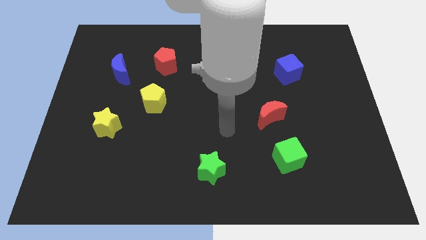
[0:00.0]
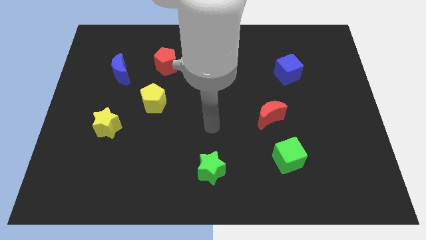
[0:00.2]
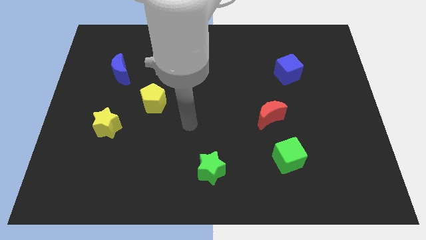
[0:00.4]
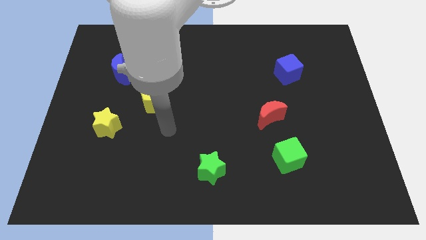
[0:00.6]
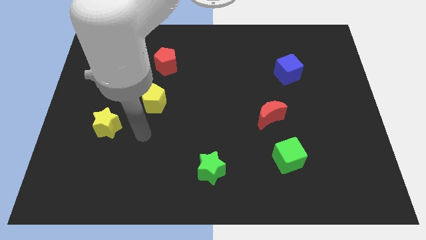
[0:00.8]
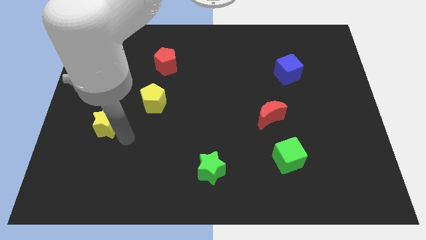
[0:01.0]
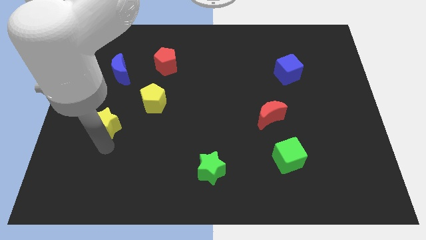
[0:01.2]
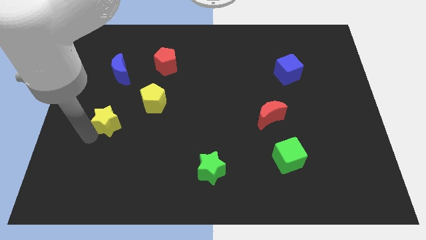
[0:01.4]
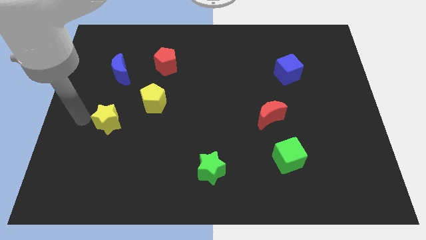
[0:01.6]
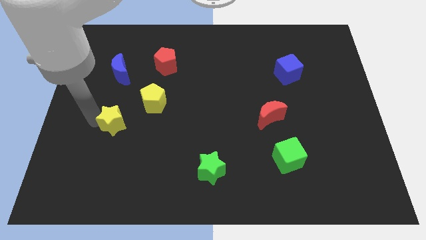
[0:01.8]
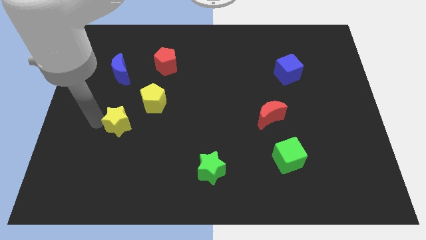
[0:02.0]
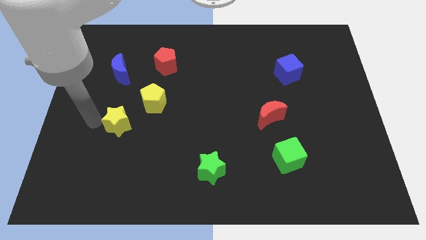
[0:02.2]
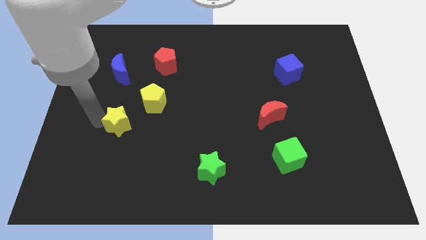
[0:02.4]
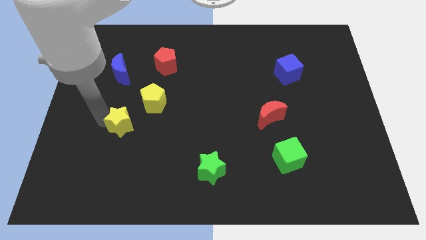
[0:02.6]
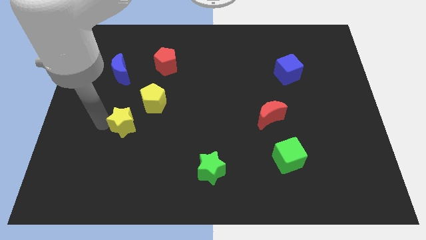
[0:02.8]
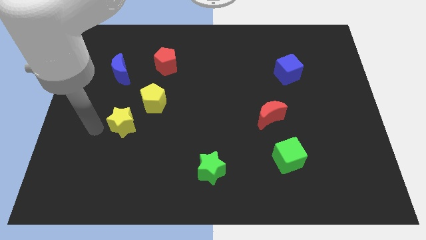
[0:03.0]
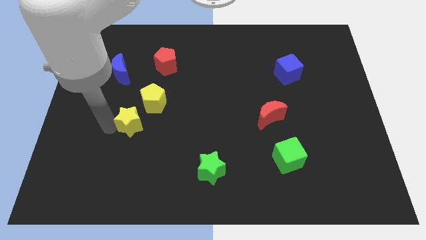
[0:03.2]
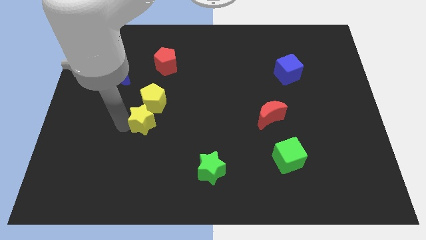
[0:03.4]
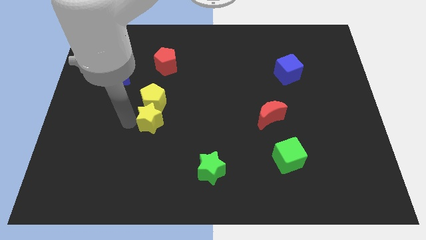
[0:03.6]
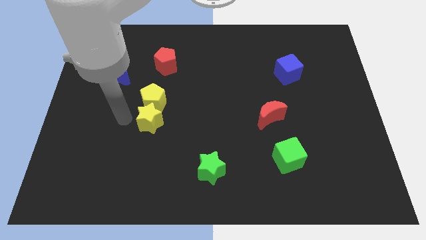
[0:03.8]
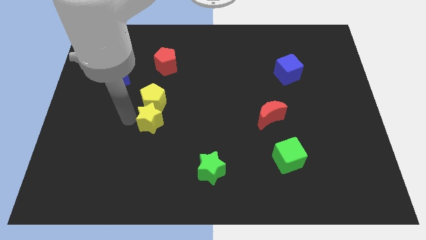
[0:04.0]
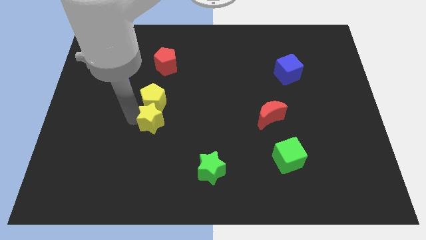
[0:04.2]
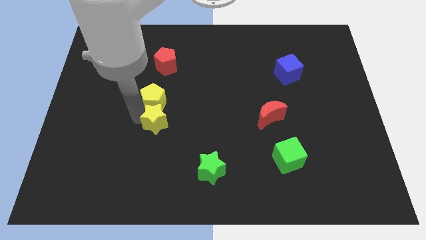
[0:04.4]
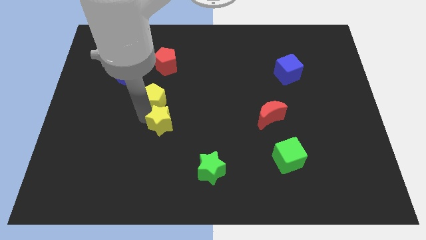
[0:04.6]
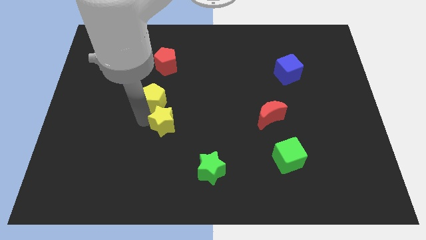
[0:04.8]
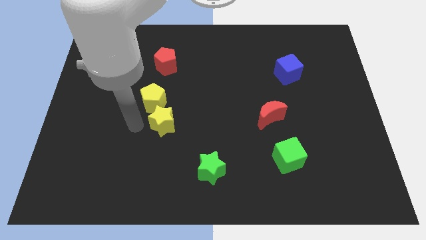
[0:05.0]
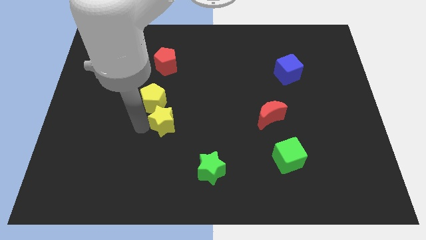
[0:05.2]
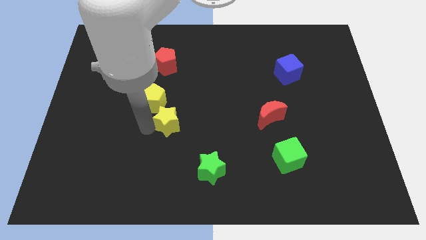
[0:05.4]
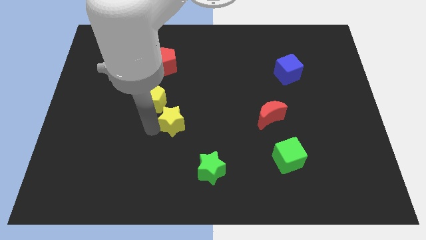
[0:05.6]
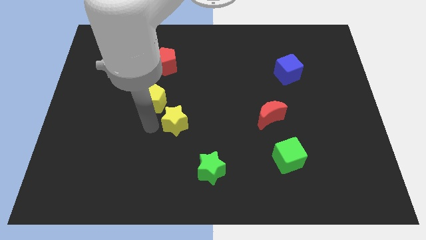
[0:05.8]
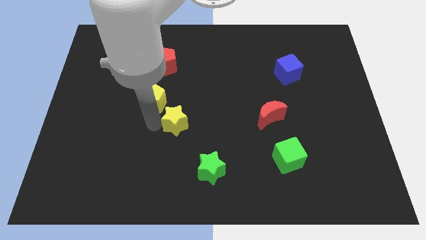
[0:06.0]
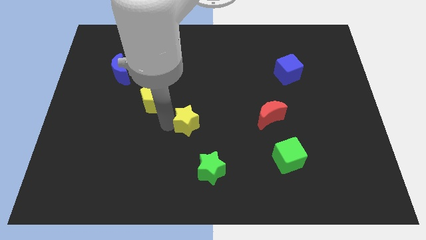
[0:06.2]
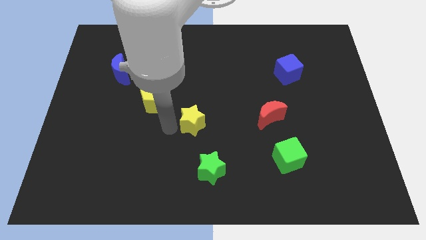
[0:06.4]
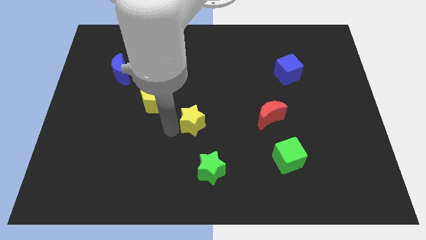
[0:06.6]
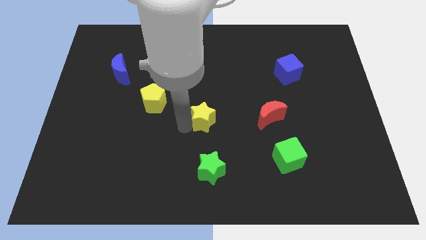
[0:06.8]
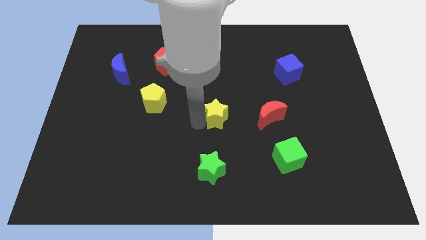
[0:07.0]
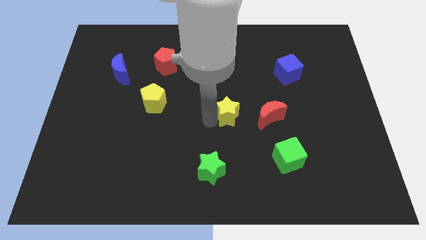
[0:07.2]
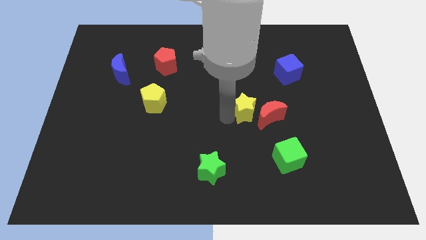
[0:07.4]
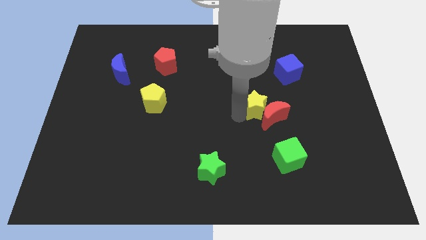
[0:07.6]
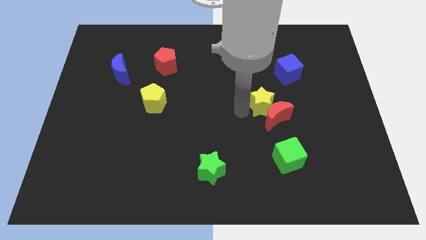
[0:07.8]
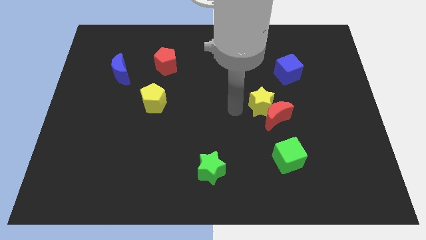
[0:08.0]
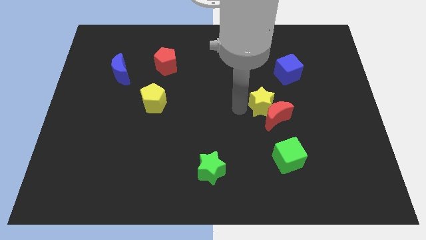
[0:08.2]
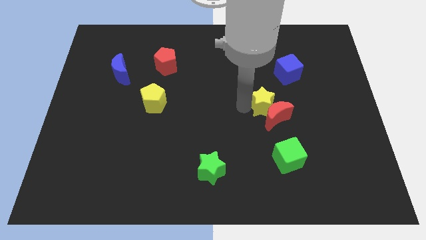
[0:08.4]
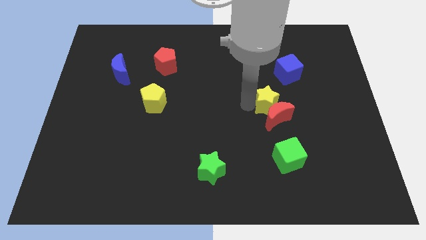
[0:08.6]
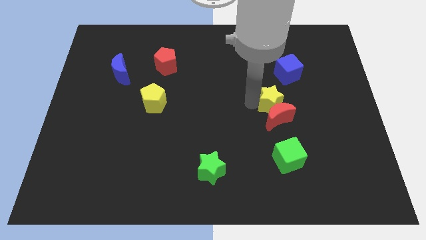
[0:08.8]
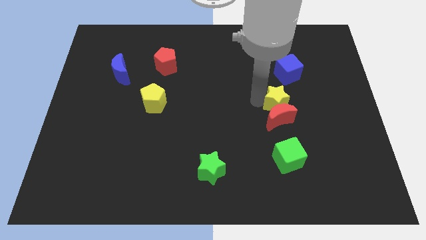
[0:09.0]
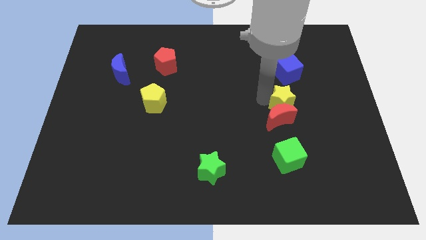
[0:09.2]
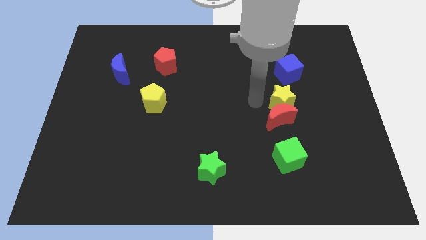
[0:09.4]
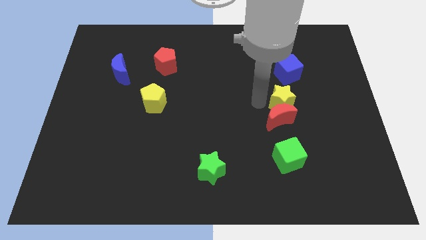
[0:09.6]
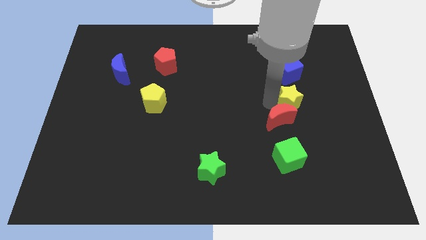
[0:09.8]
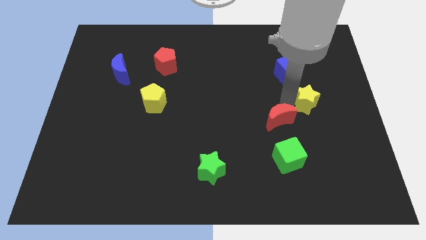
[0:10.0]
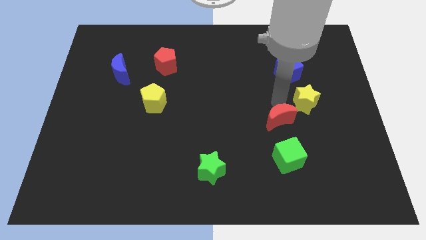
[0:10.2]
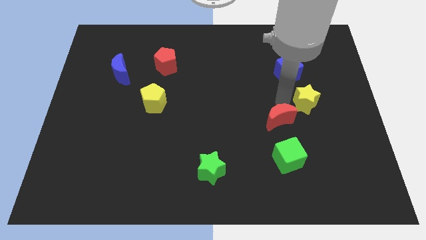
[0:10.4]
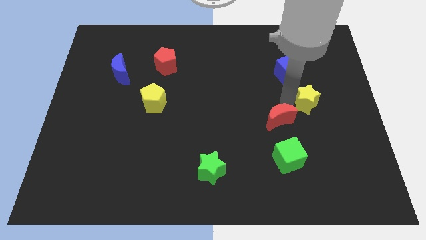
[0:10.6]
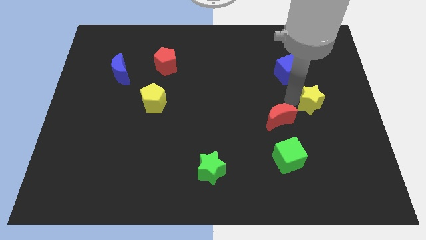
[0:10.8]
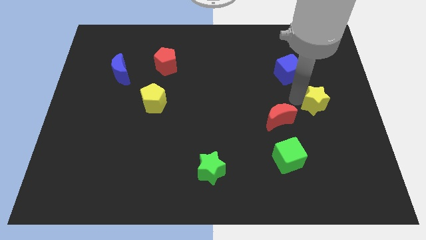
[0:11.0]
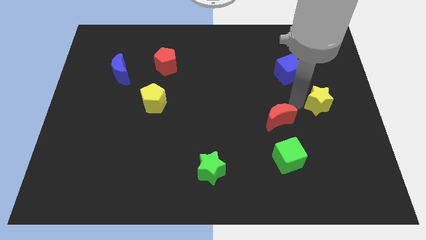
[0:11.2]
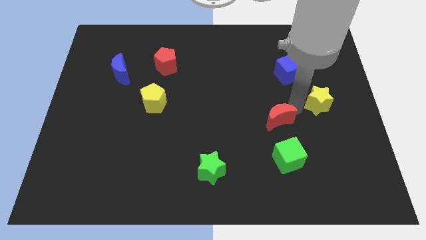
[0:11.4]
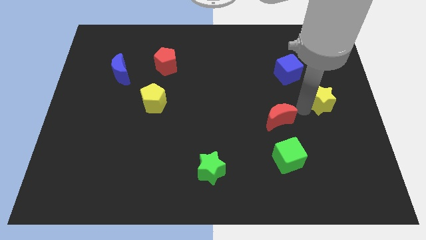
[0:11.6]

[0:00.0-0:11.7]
push the yellow star to the center right
